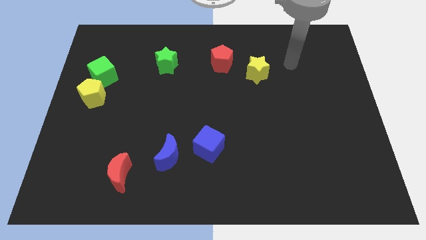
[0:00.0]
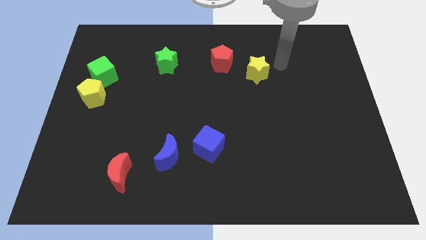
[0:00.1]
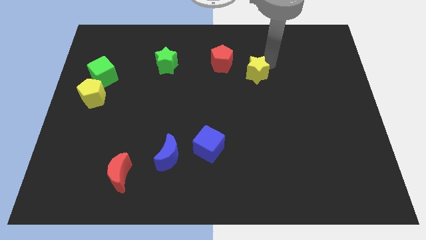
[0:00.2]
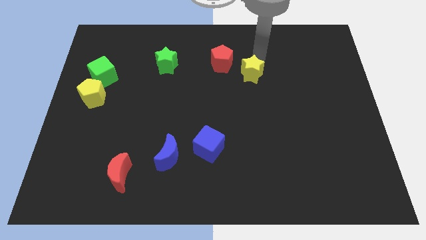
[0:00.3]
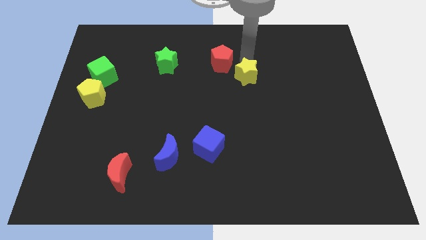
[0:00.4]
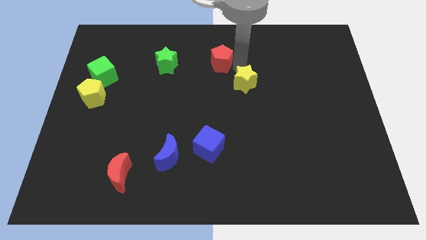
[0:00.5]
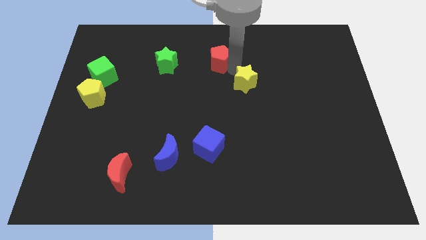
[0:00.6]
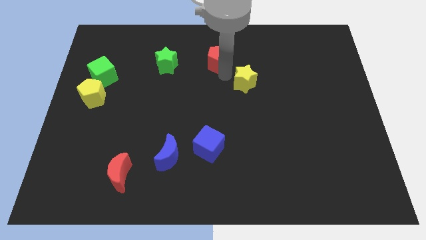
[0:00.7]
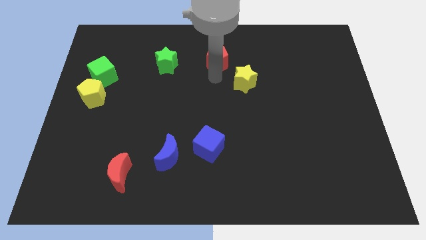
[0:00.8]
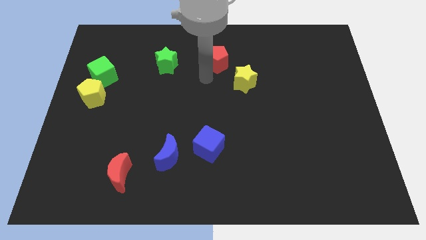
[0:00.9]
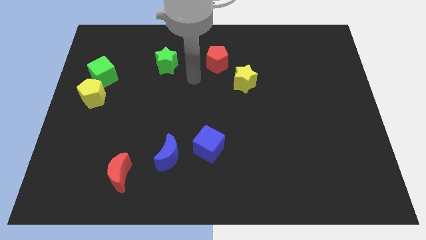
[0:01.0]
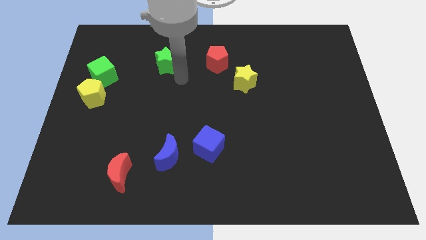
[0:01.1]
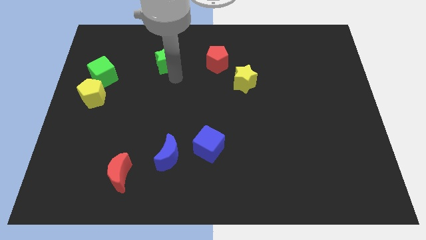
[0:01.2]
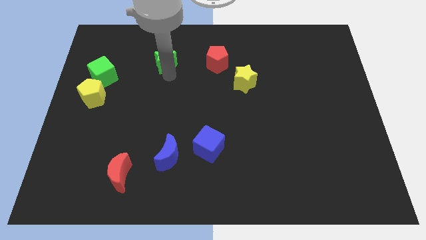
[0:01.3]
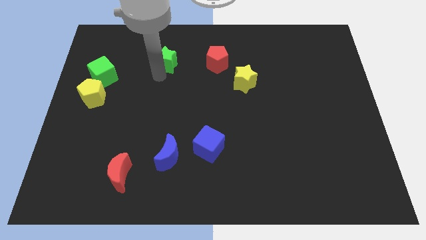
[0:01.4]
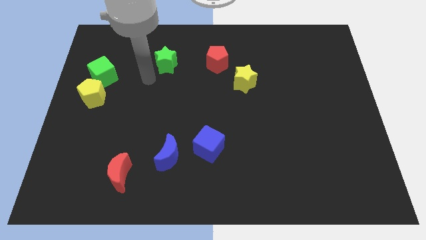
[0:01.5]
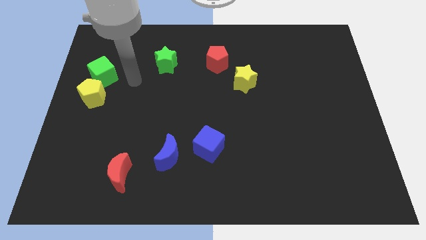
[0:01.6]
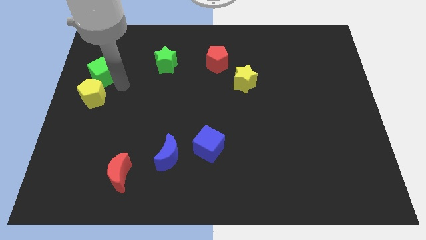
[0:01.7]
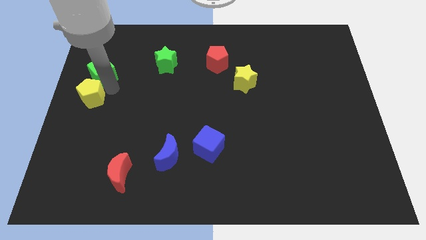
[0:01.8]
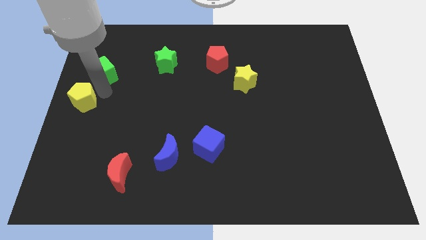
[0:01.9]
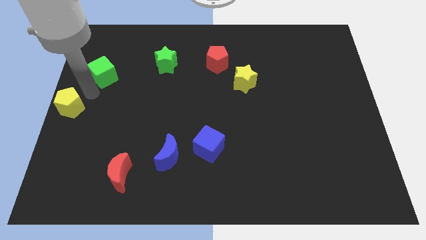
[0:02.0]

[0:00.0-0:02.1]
move the green cube away from the yellow pentagon

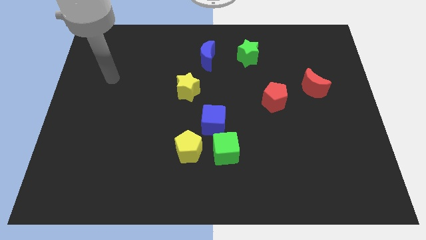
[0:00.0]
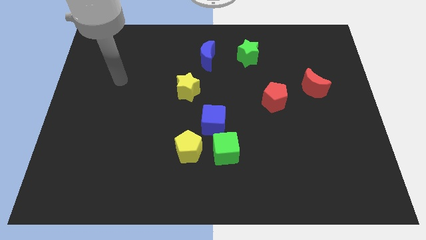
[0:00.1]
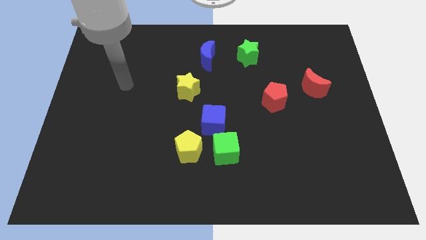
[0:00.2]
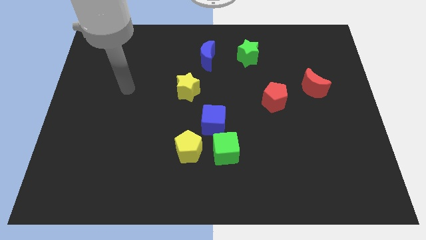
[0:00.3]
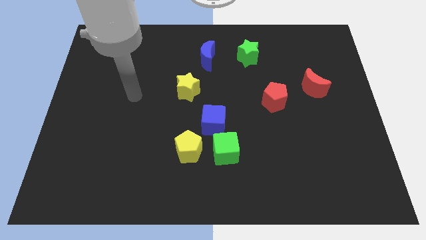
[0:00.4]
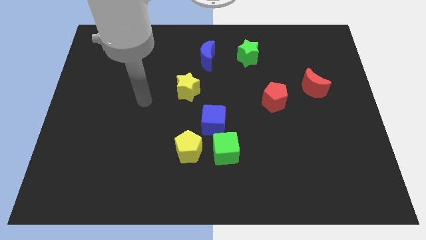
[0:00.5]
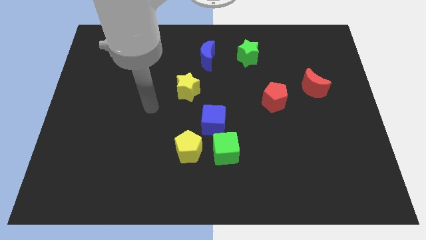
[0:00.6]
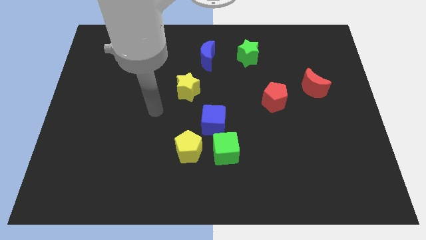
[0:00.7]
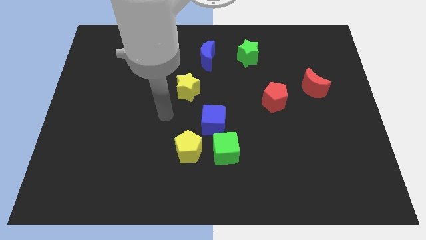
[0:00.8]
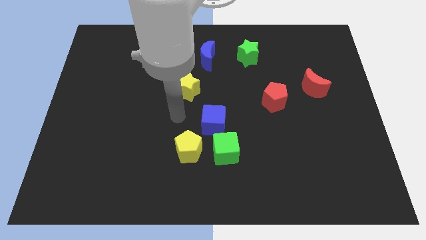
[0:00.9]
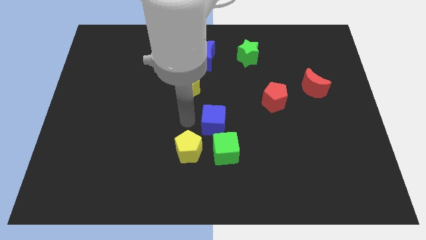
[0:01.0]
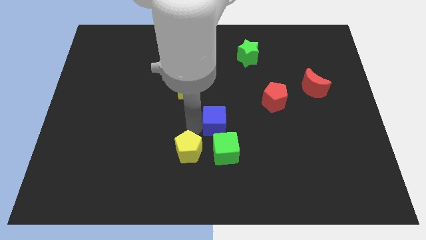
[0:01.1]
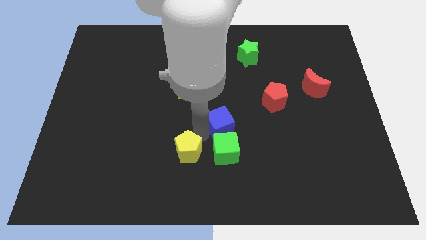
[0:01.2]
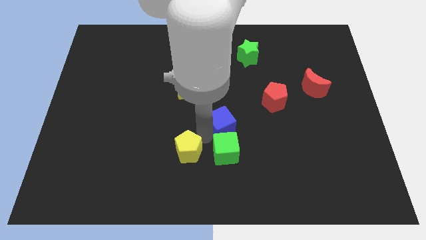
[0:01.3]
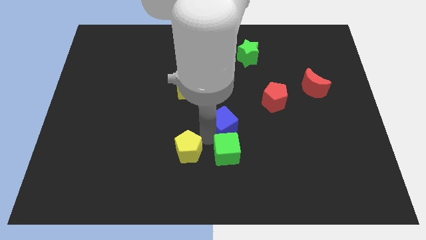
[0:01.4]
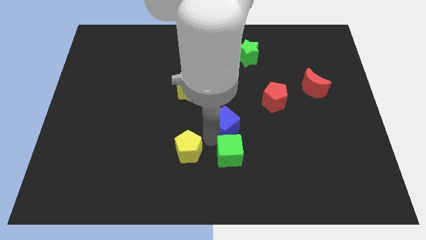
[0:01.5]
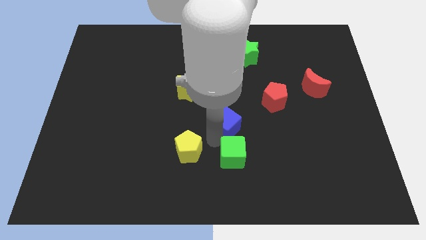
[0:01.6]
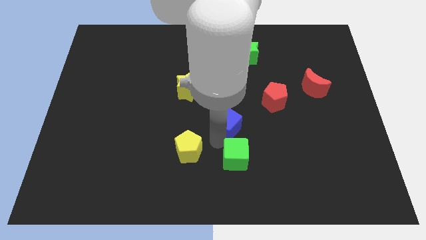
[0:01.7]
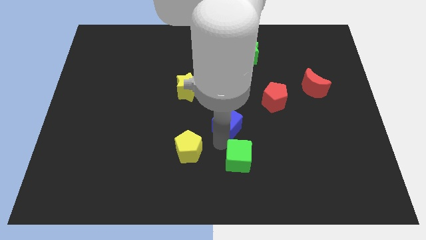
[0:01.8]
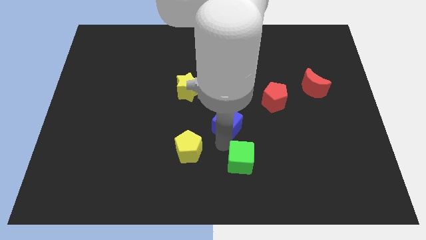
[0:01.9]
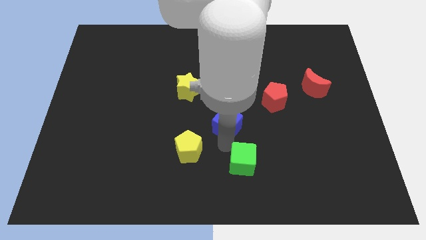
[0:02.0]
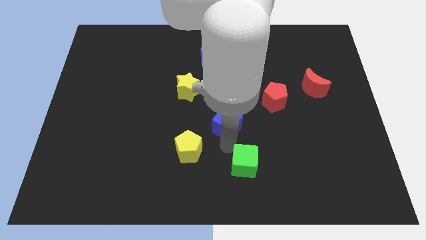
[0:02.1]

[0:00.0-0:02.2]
move the green cube away from the blue cube and yellow pentagon

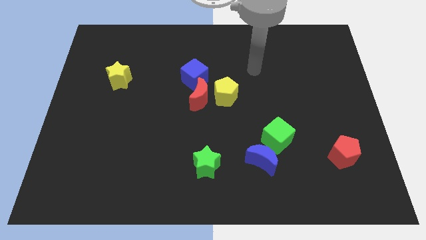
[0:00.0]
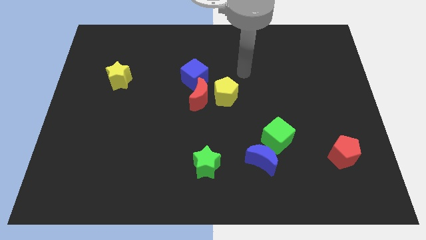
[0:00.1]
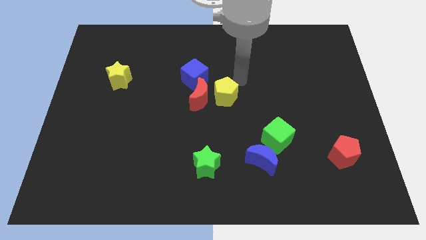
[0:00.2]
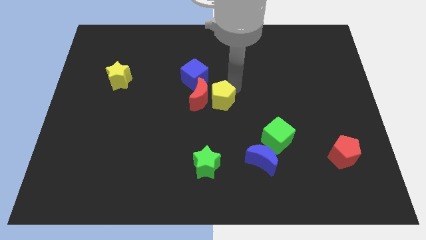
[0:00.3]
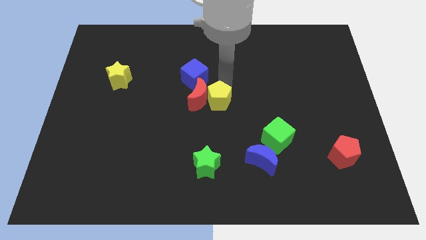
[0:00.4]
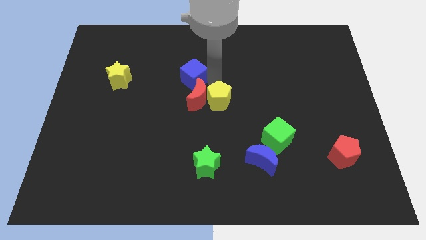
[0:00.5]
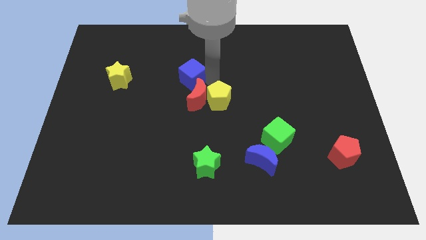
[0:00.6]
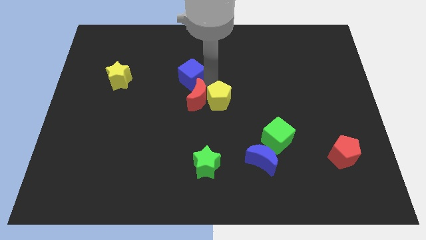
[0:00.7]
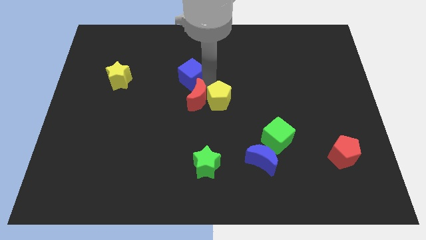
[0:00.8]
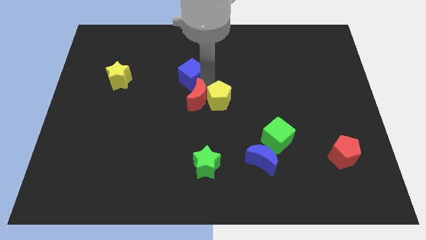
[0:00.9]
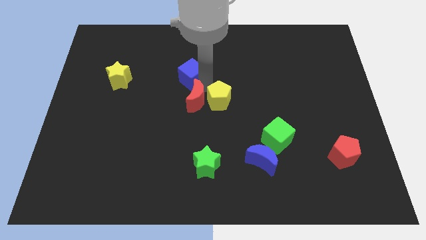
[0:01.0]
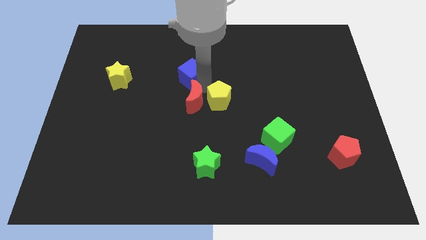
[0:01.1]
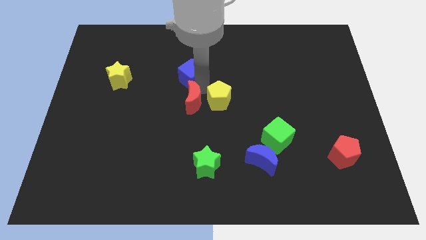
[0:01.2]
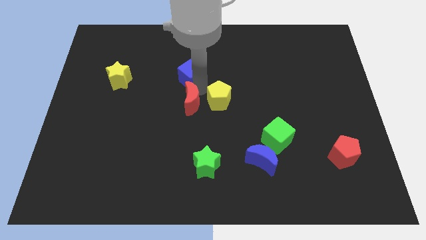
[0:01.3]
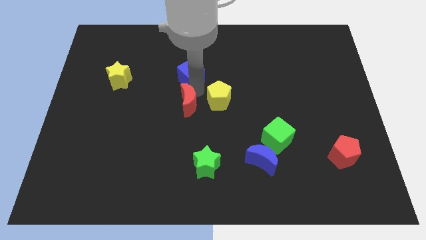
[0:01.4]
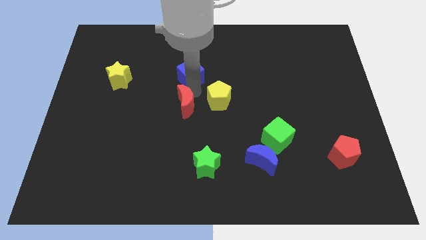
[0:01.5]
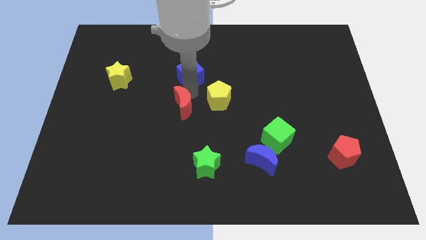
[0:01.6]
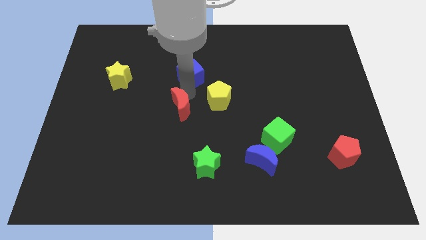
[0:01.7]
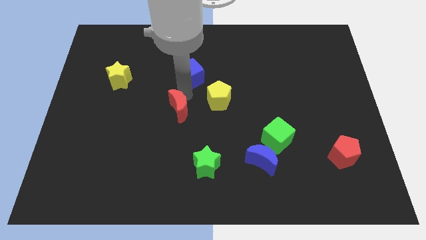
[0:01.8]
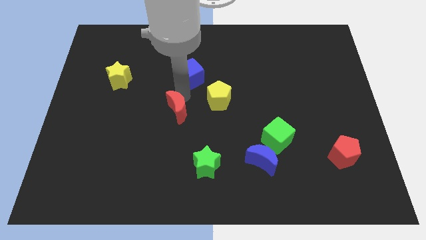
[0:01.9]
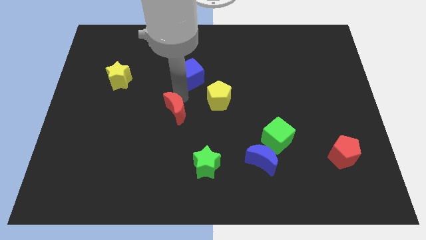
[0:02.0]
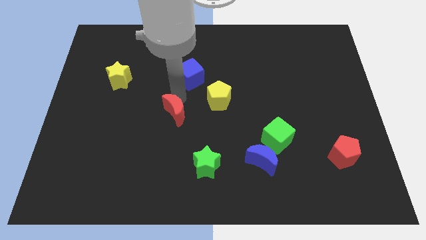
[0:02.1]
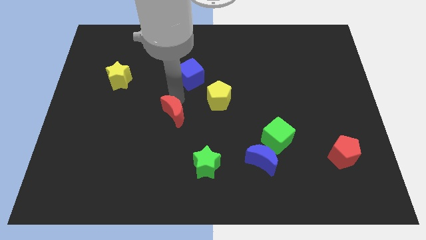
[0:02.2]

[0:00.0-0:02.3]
separate the red moon from the yellow pentagon and blue cube

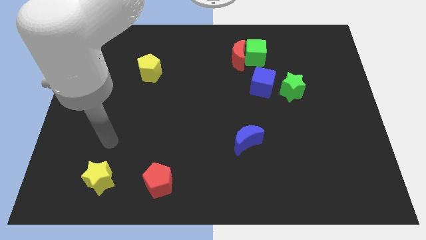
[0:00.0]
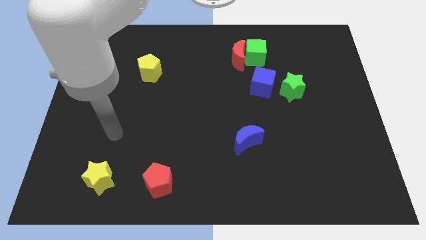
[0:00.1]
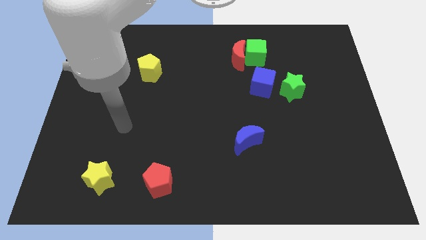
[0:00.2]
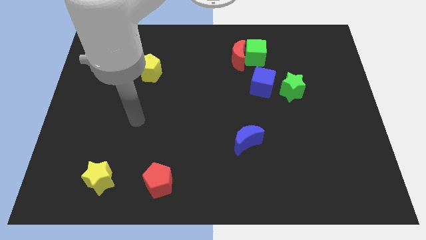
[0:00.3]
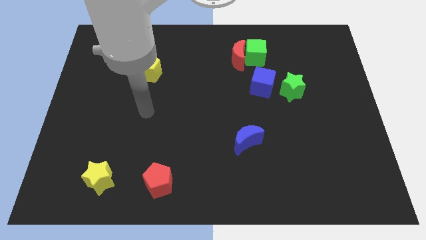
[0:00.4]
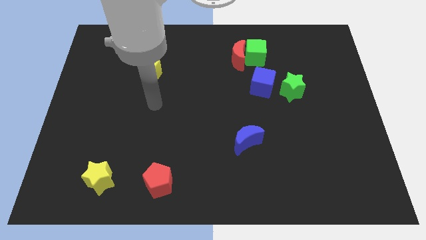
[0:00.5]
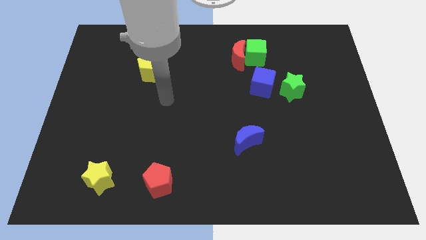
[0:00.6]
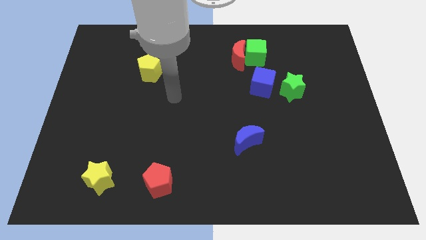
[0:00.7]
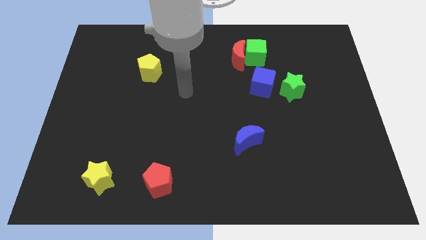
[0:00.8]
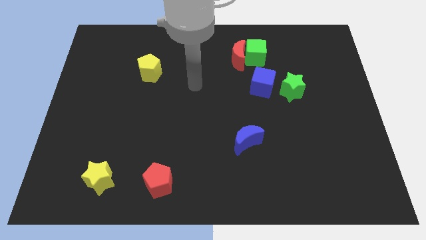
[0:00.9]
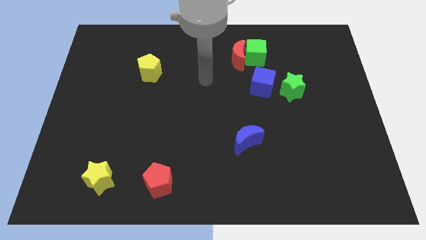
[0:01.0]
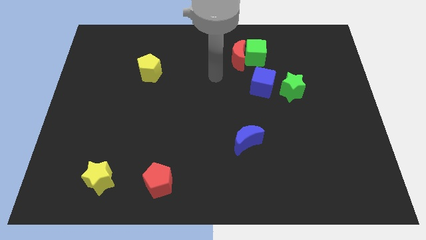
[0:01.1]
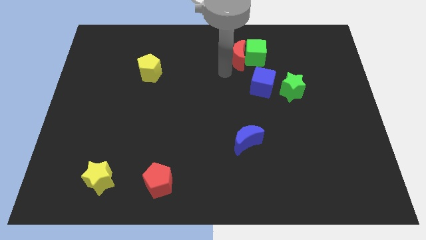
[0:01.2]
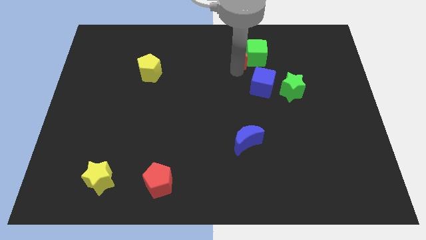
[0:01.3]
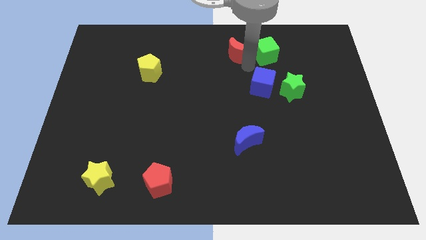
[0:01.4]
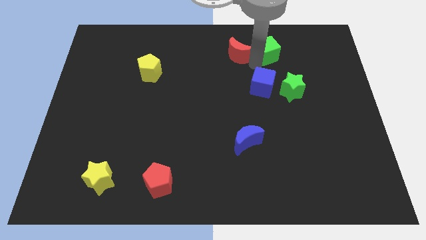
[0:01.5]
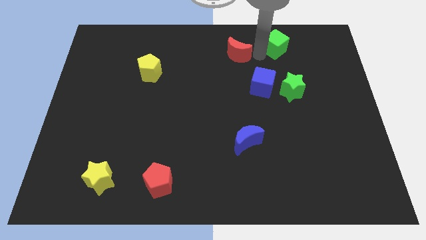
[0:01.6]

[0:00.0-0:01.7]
move the red moon away from the green cube

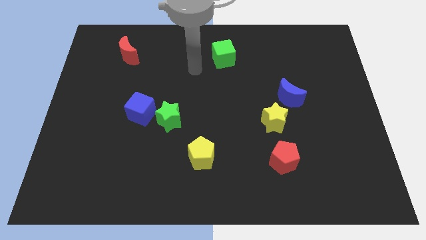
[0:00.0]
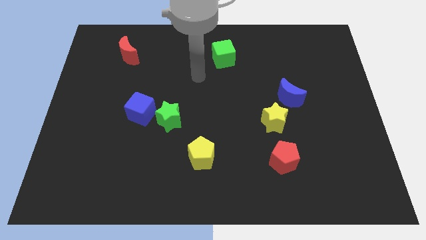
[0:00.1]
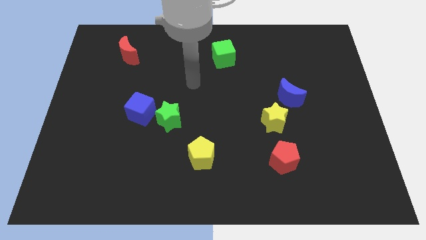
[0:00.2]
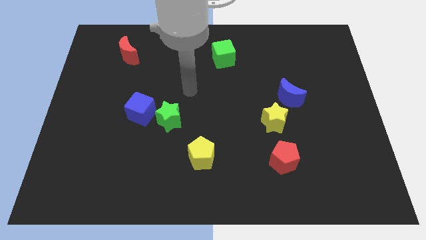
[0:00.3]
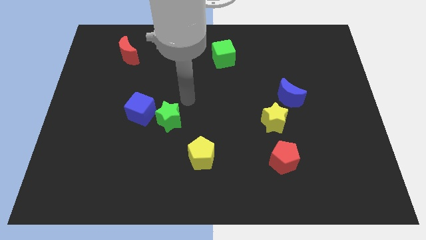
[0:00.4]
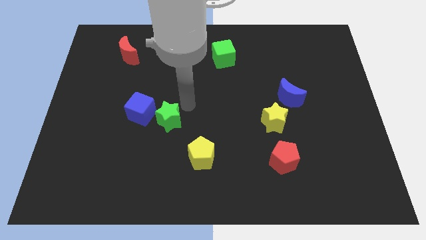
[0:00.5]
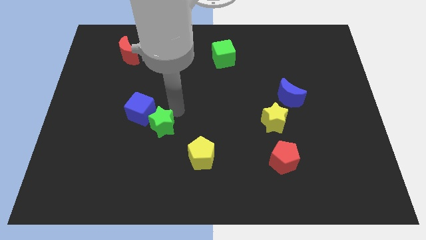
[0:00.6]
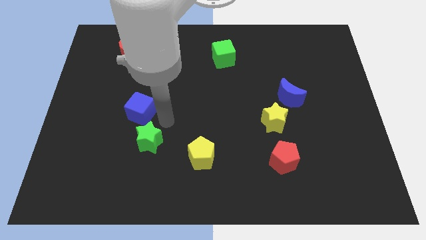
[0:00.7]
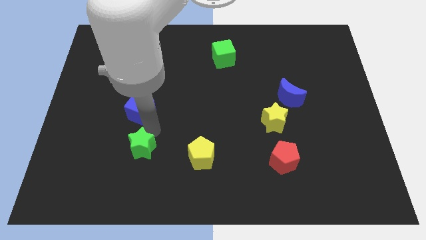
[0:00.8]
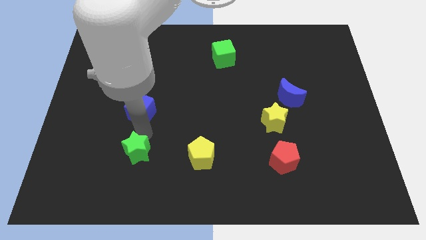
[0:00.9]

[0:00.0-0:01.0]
separate the blue cube from the green star
